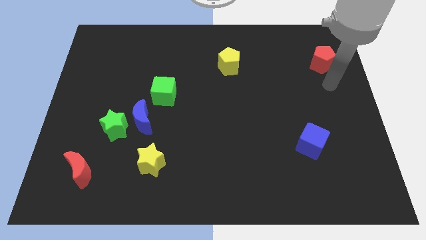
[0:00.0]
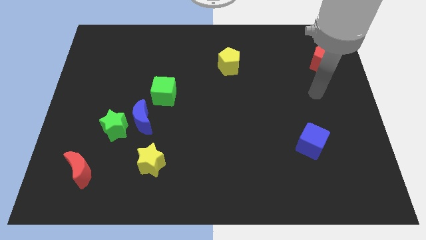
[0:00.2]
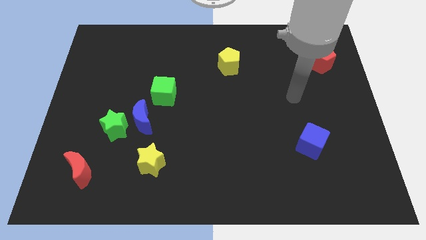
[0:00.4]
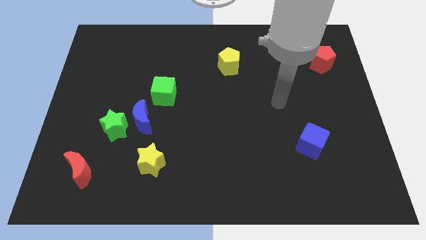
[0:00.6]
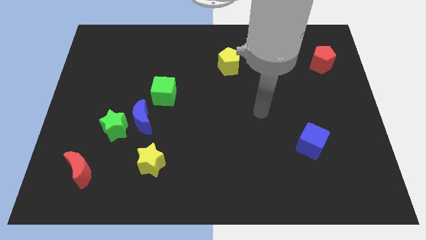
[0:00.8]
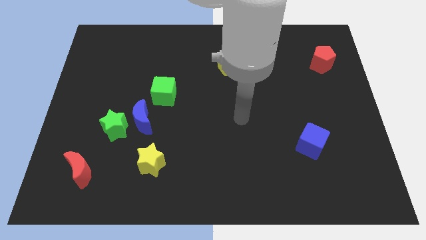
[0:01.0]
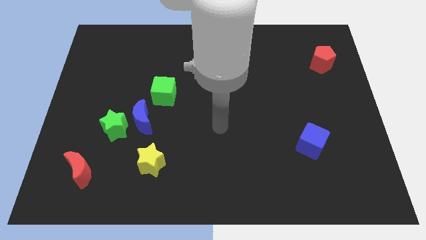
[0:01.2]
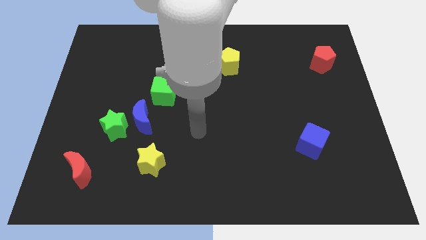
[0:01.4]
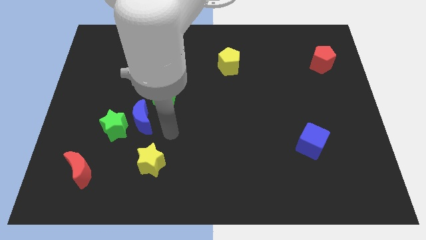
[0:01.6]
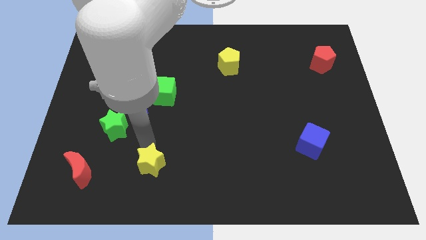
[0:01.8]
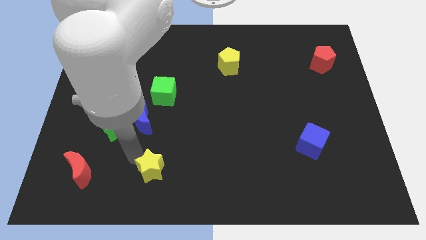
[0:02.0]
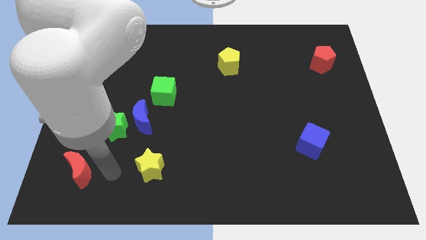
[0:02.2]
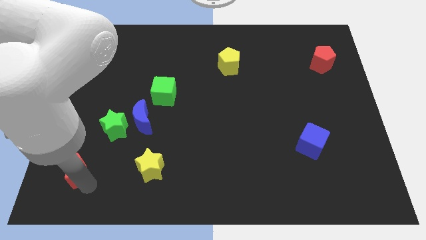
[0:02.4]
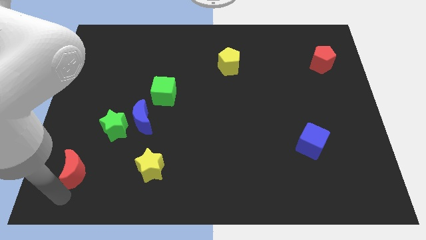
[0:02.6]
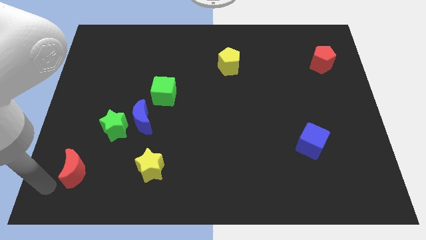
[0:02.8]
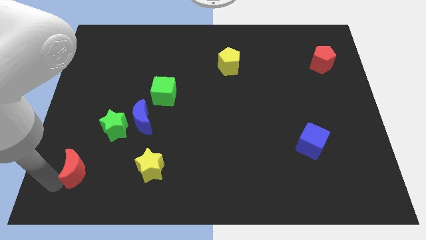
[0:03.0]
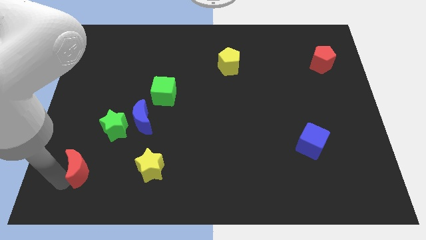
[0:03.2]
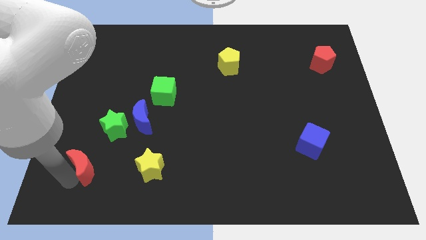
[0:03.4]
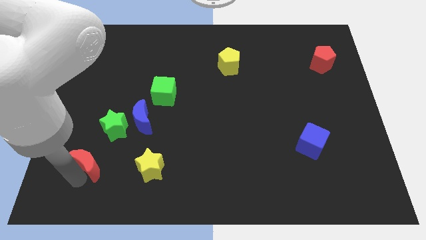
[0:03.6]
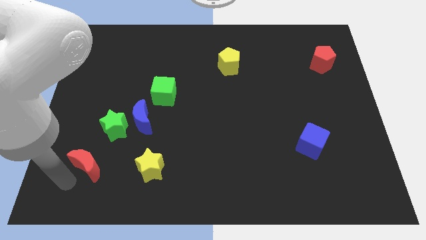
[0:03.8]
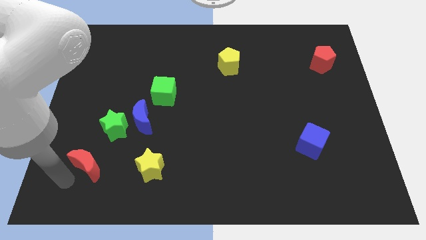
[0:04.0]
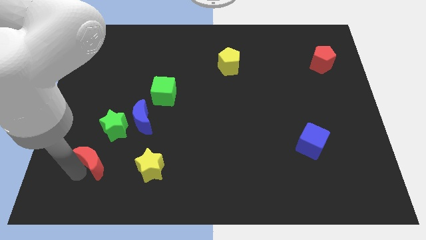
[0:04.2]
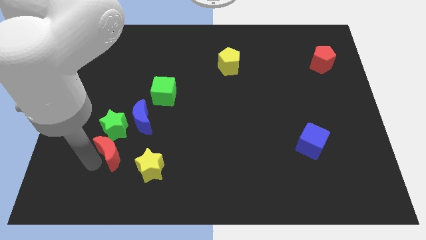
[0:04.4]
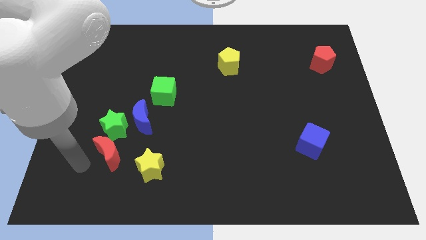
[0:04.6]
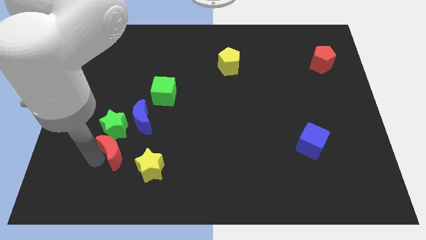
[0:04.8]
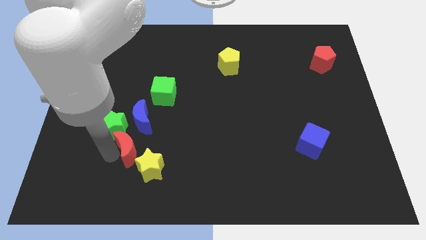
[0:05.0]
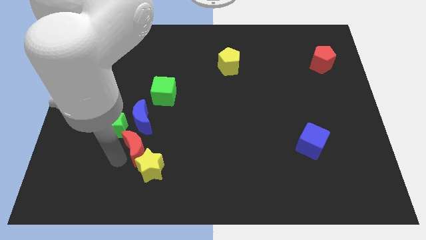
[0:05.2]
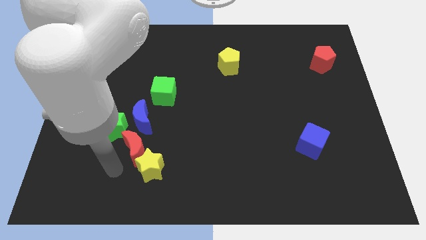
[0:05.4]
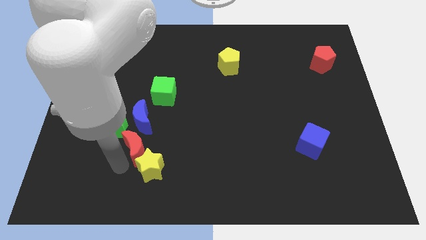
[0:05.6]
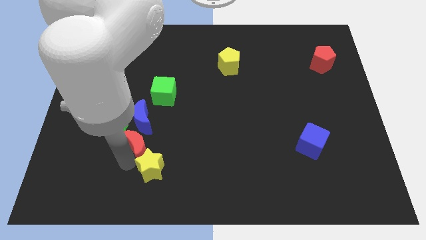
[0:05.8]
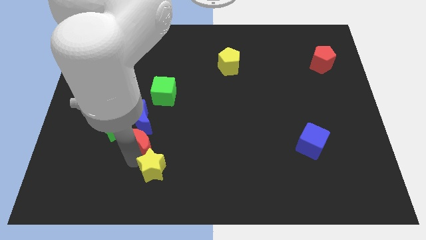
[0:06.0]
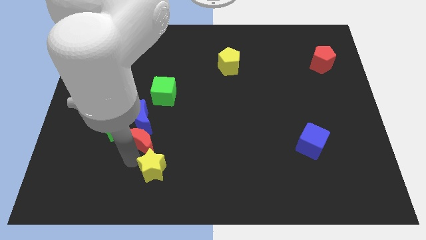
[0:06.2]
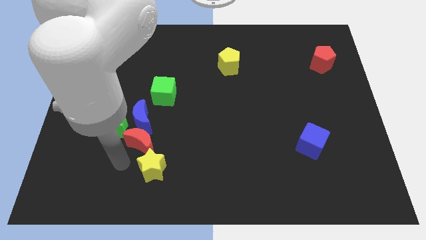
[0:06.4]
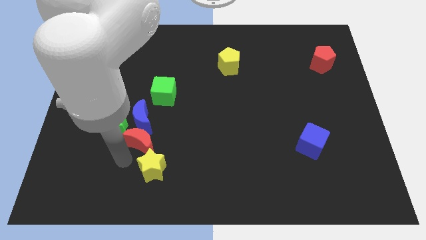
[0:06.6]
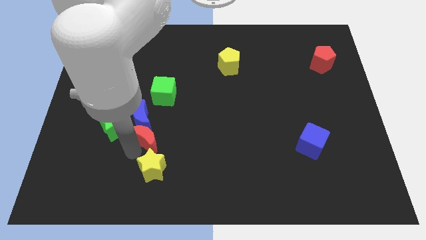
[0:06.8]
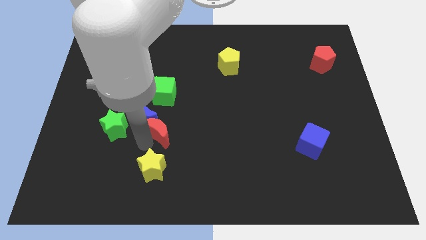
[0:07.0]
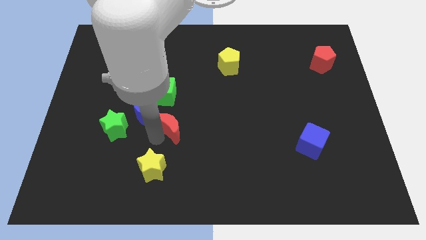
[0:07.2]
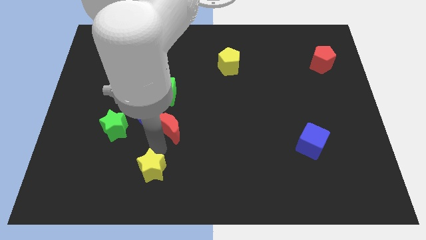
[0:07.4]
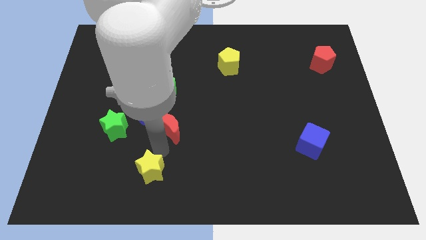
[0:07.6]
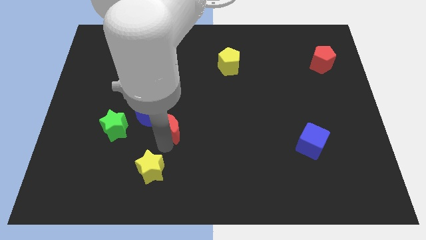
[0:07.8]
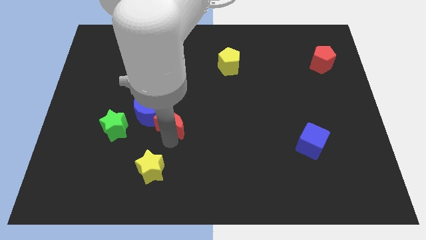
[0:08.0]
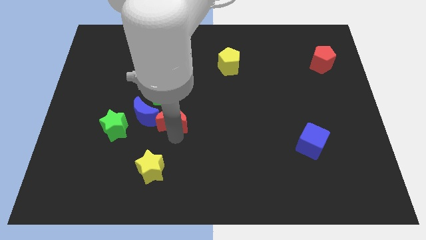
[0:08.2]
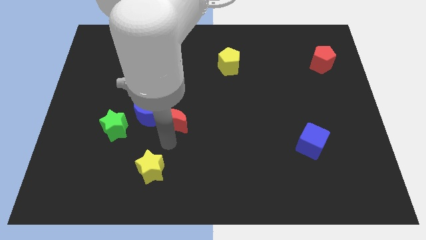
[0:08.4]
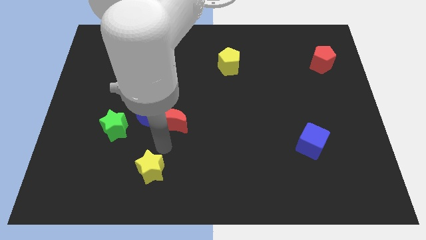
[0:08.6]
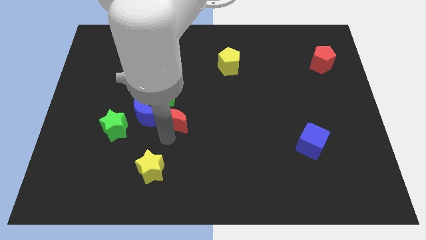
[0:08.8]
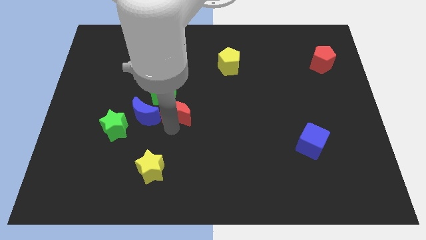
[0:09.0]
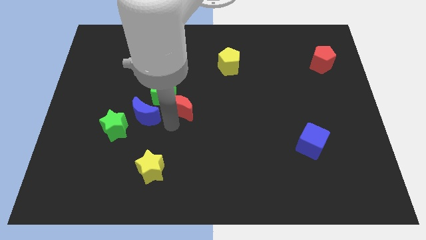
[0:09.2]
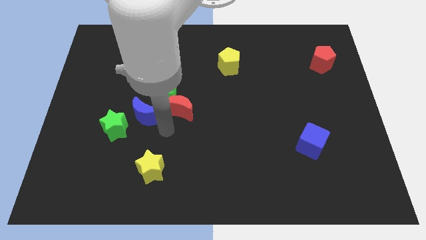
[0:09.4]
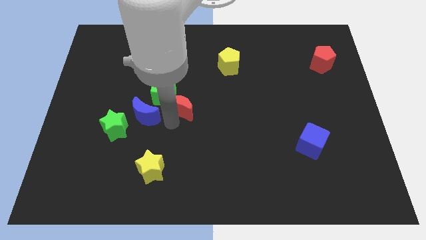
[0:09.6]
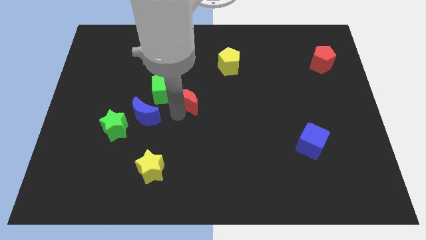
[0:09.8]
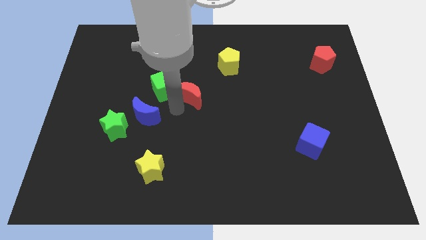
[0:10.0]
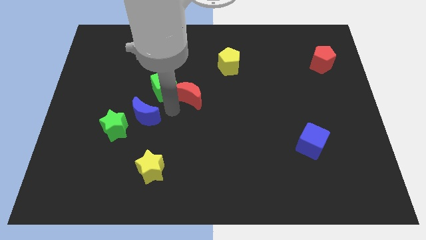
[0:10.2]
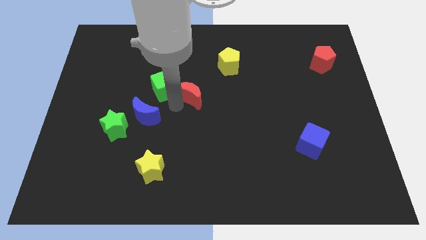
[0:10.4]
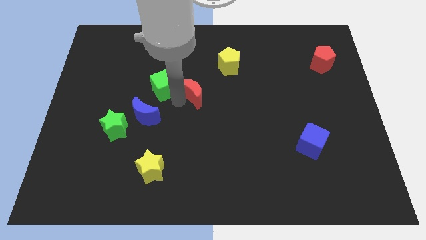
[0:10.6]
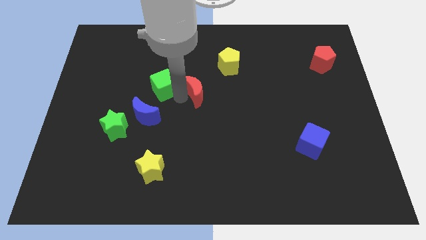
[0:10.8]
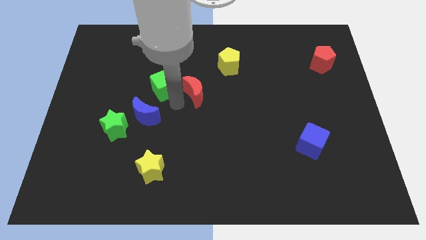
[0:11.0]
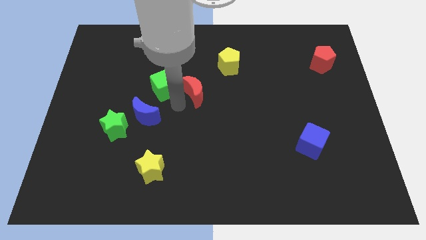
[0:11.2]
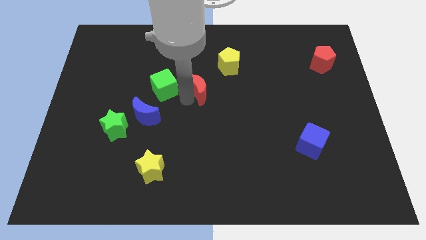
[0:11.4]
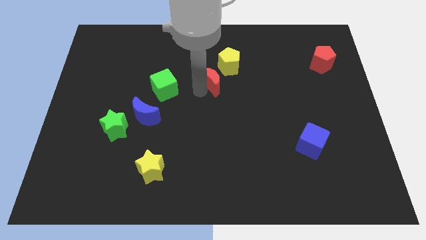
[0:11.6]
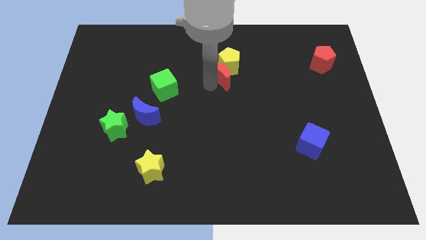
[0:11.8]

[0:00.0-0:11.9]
push the red moon next to the yellow pentagon

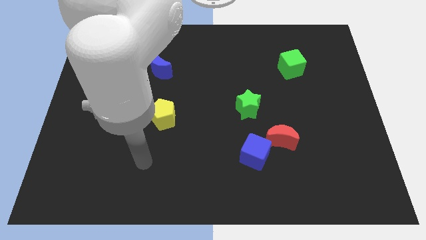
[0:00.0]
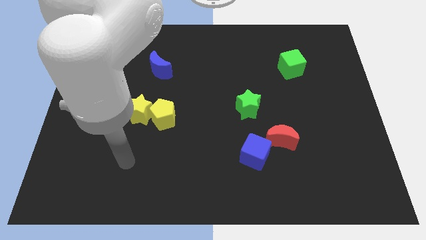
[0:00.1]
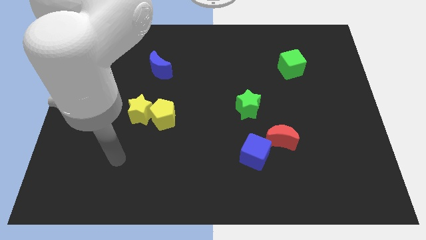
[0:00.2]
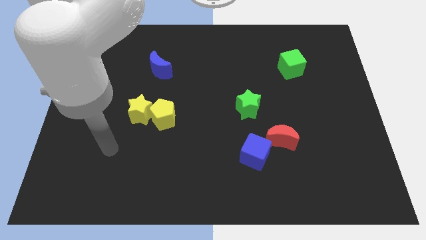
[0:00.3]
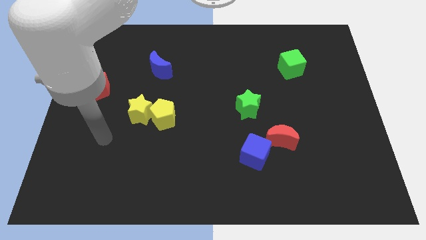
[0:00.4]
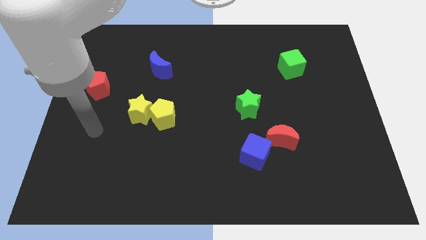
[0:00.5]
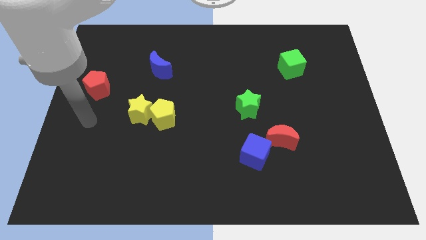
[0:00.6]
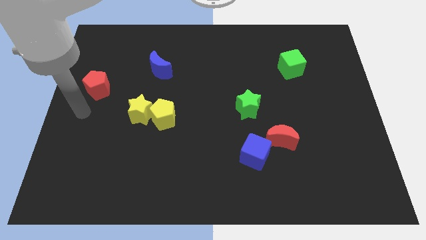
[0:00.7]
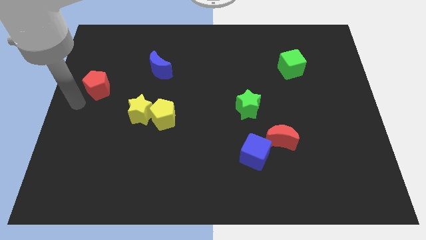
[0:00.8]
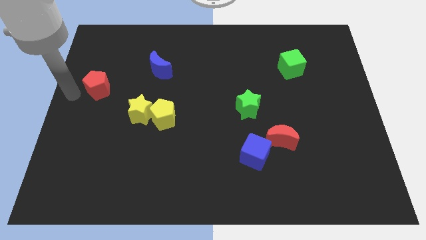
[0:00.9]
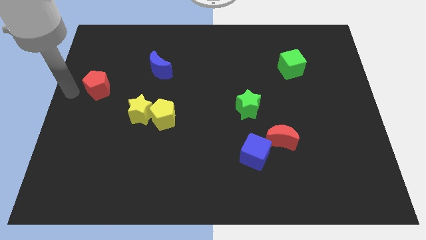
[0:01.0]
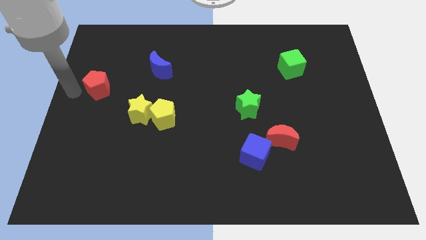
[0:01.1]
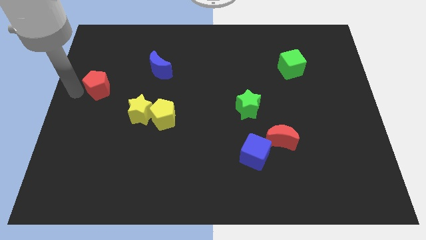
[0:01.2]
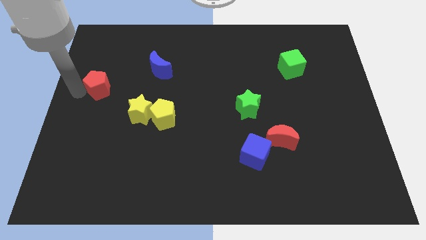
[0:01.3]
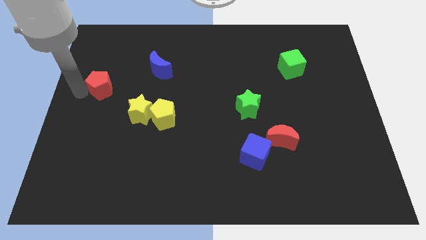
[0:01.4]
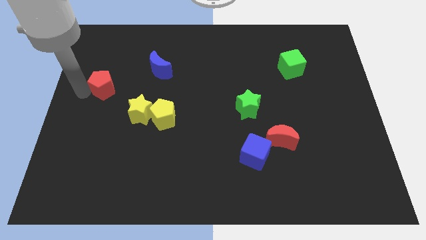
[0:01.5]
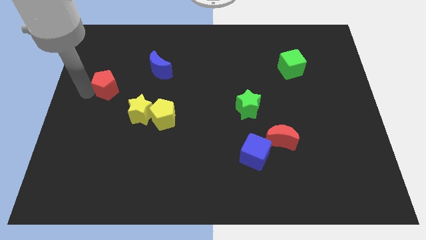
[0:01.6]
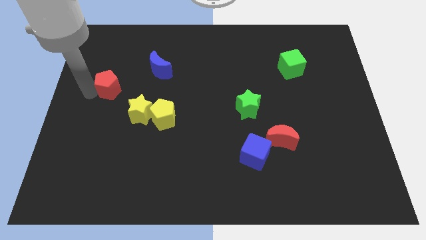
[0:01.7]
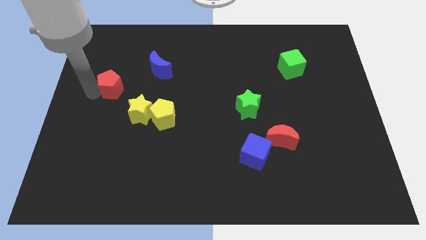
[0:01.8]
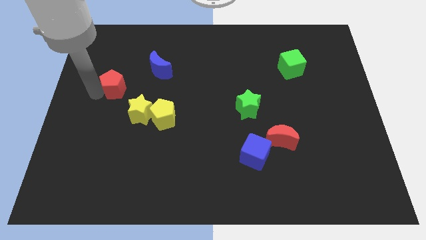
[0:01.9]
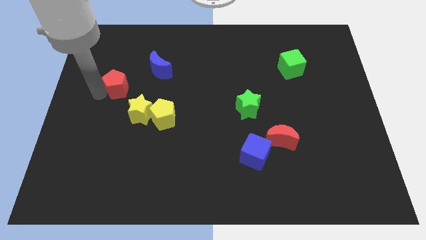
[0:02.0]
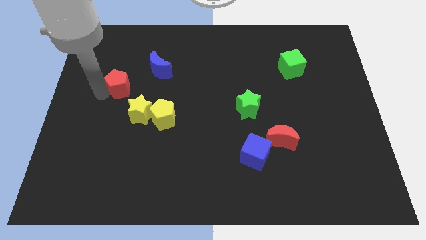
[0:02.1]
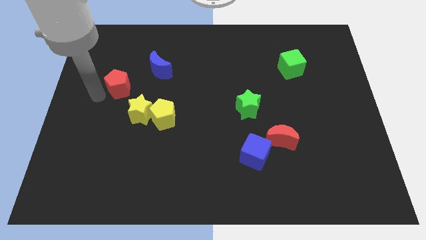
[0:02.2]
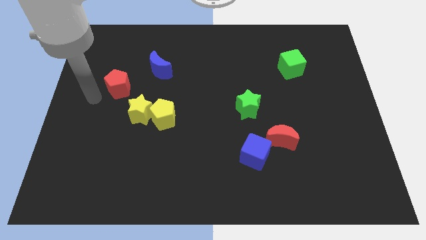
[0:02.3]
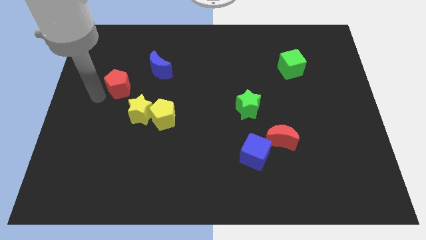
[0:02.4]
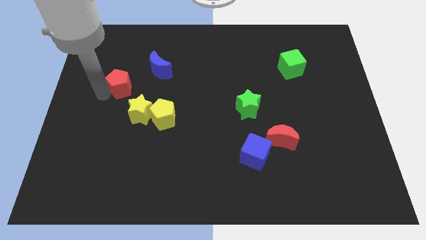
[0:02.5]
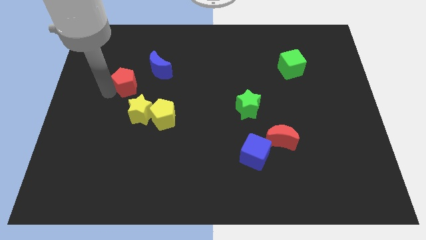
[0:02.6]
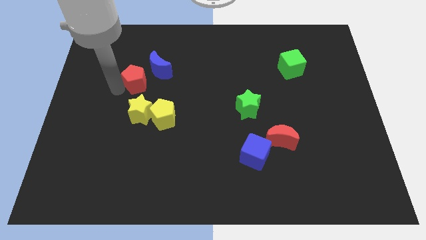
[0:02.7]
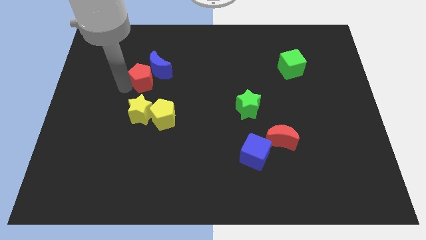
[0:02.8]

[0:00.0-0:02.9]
move the red pentagon close to the blue moon
